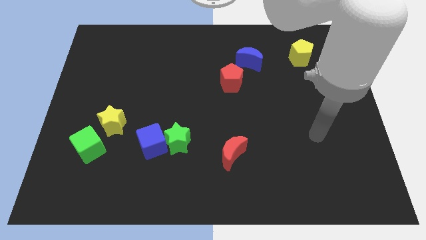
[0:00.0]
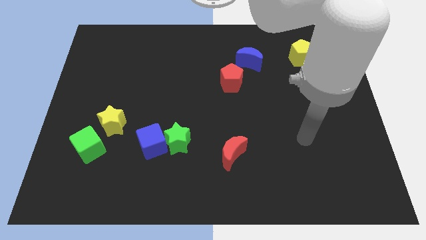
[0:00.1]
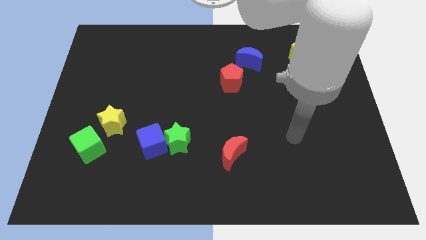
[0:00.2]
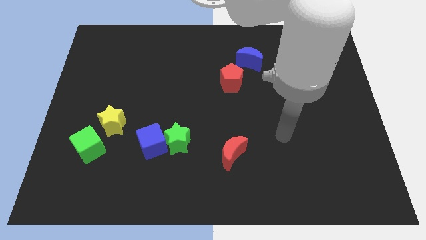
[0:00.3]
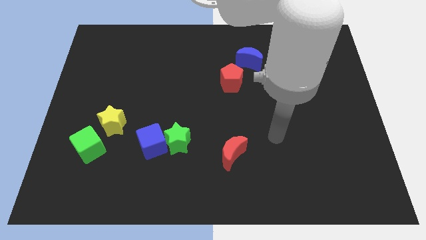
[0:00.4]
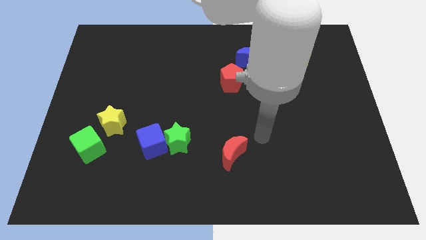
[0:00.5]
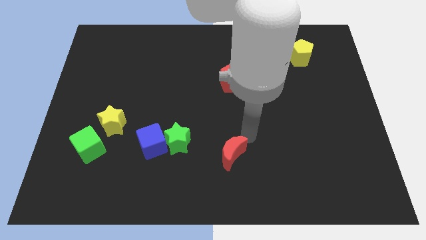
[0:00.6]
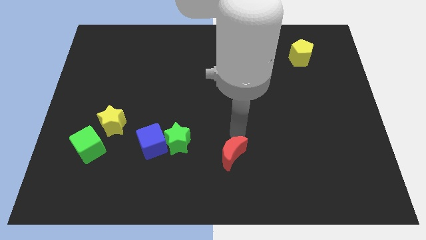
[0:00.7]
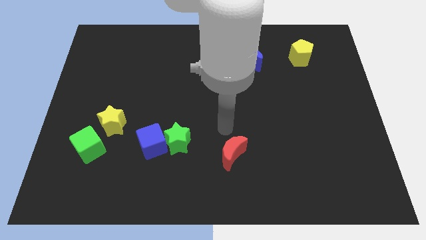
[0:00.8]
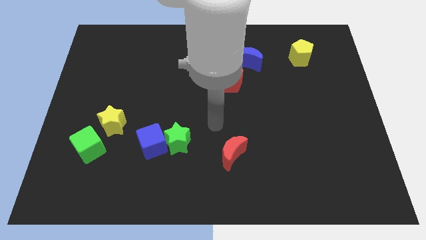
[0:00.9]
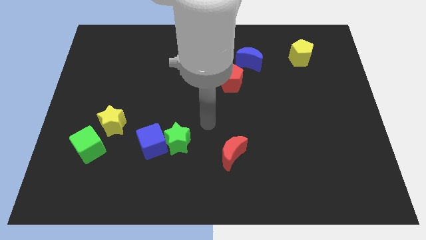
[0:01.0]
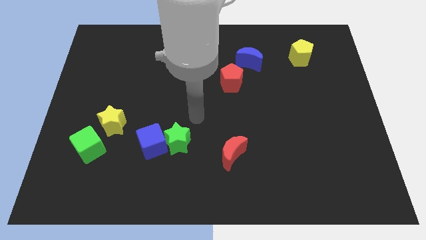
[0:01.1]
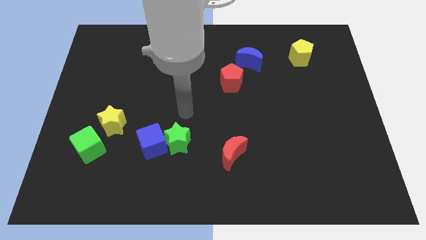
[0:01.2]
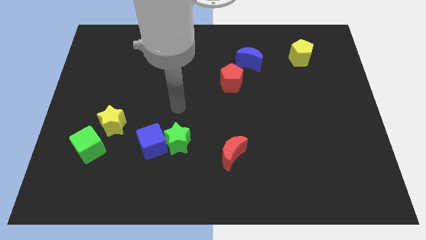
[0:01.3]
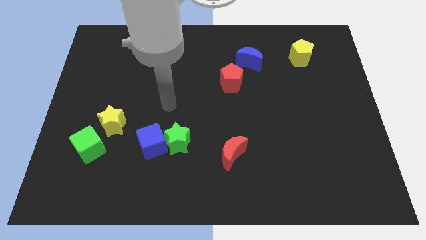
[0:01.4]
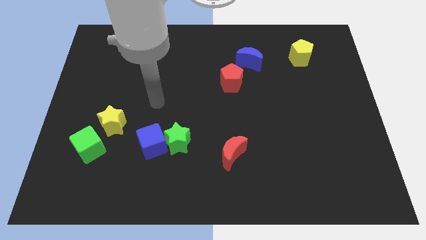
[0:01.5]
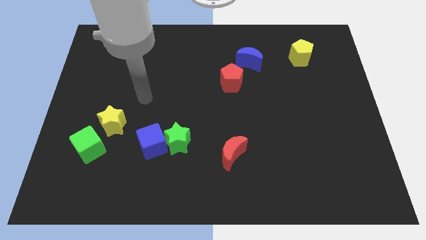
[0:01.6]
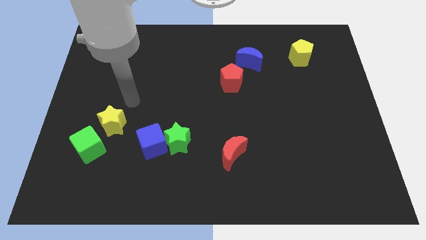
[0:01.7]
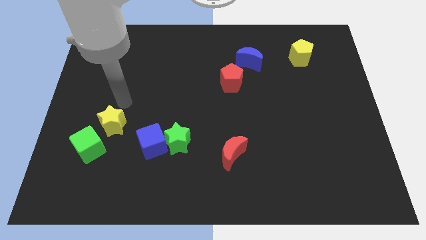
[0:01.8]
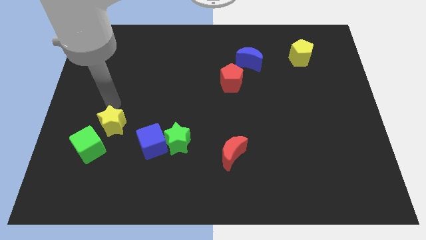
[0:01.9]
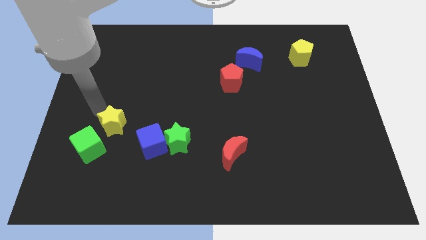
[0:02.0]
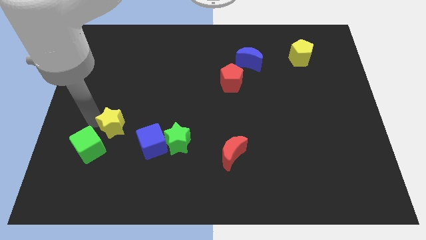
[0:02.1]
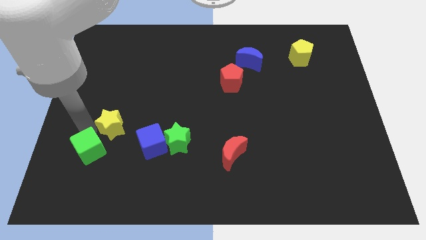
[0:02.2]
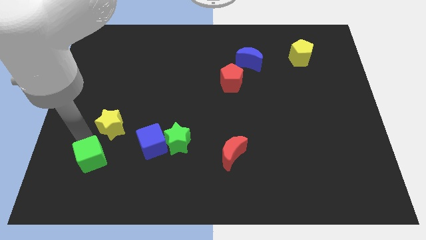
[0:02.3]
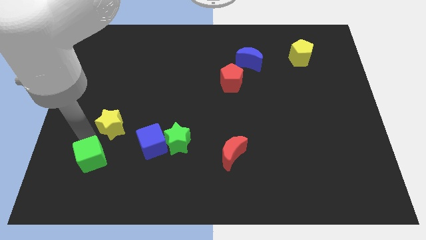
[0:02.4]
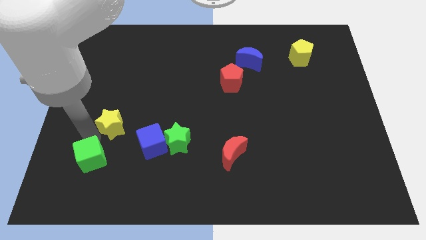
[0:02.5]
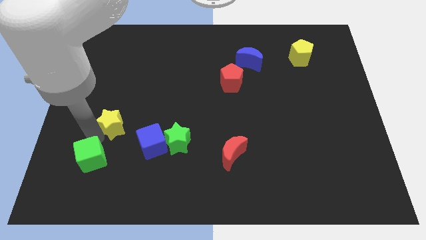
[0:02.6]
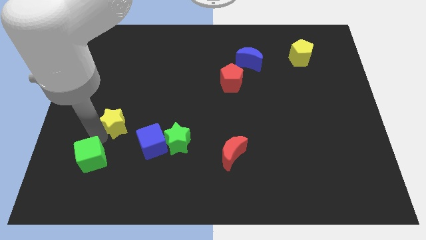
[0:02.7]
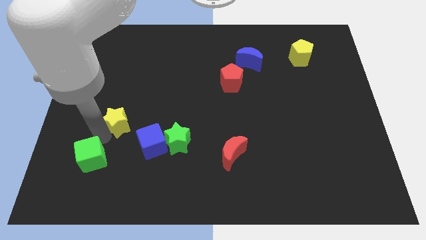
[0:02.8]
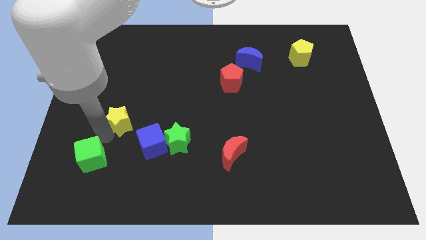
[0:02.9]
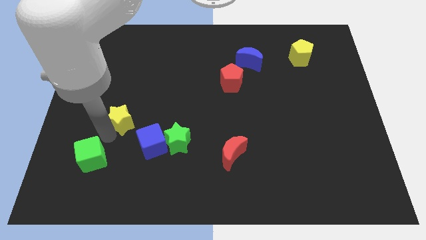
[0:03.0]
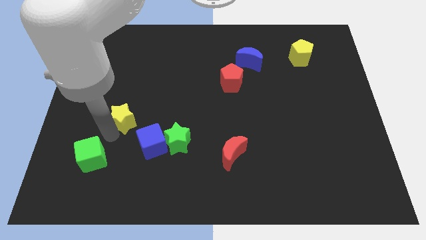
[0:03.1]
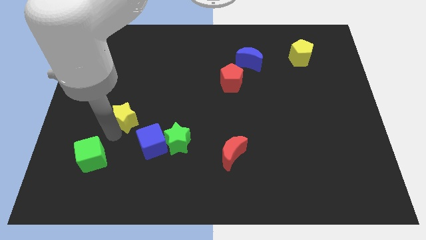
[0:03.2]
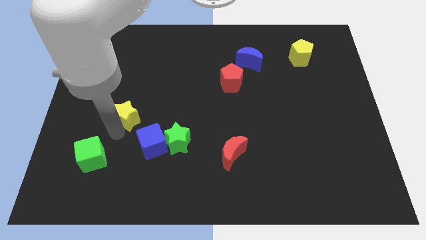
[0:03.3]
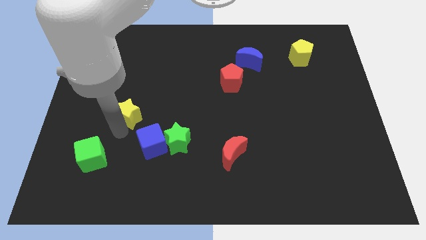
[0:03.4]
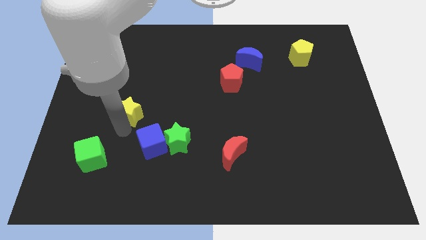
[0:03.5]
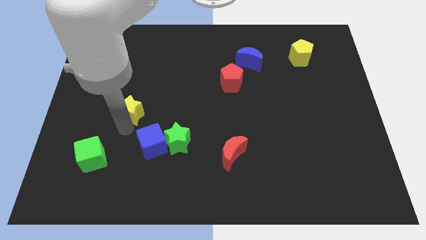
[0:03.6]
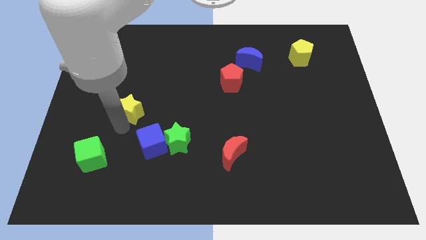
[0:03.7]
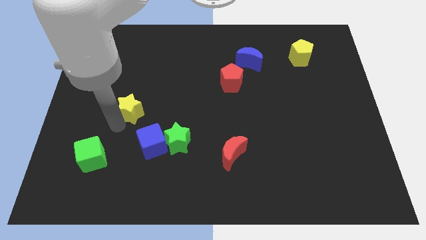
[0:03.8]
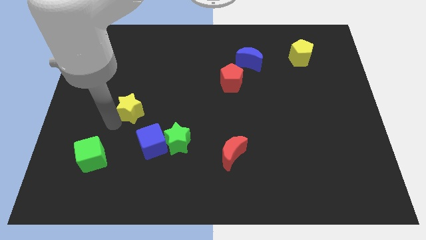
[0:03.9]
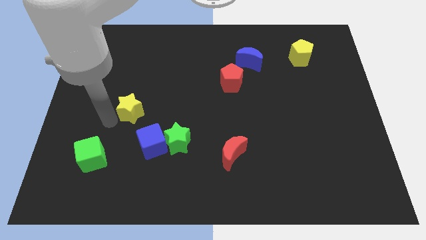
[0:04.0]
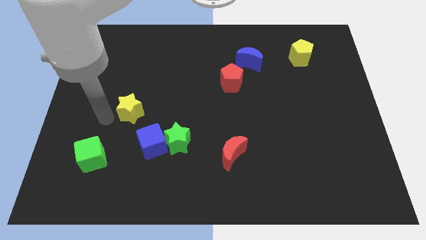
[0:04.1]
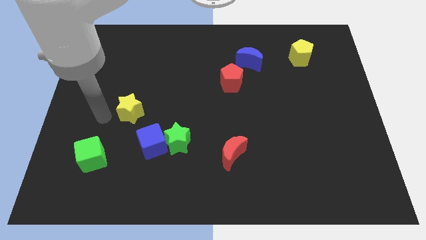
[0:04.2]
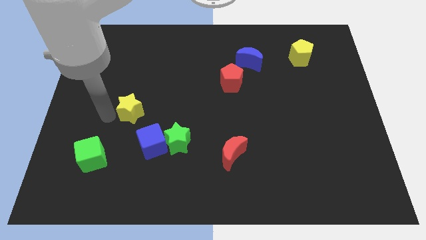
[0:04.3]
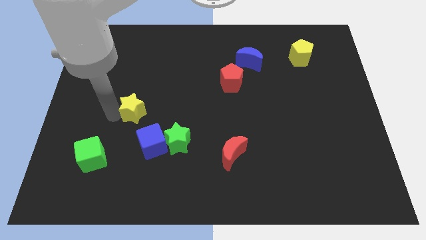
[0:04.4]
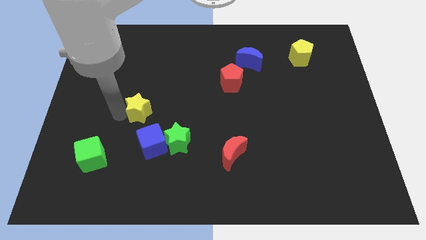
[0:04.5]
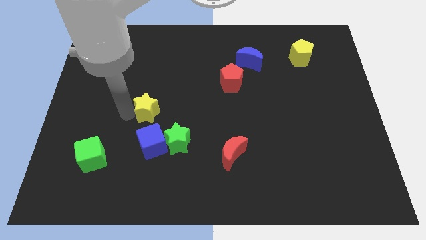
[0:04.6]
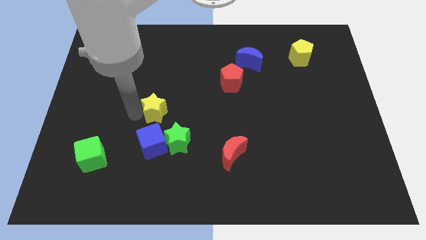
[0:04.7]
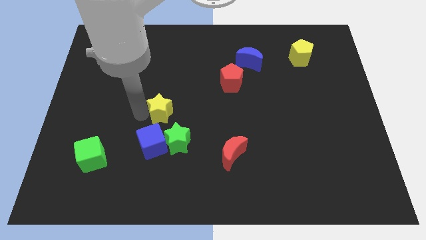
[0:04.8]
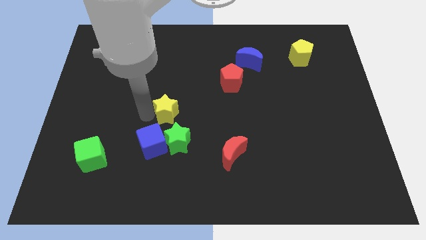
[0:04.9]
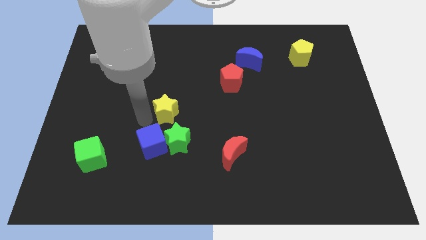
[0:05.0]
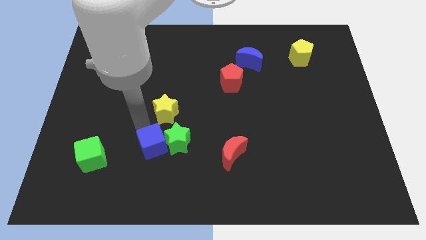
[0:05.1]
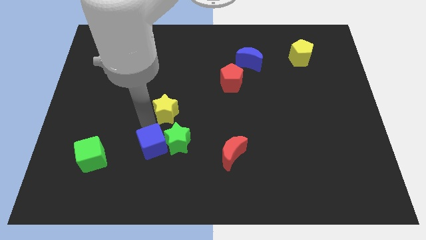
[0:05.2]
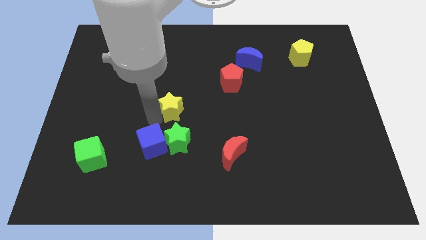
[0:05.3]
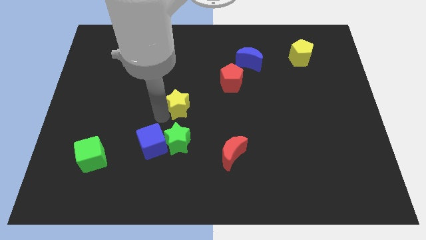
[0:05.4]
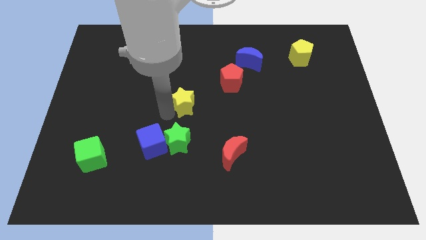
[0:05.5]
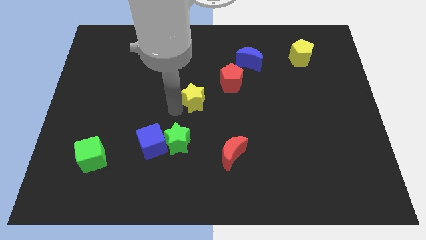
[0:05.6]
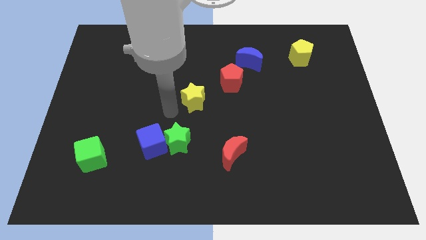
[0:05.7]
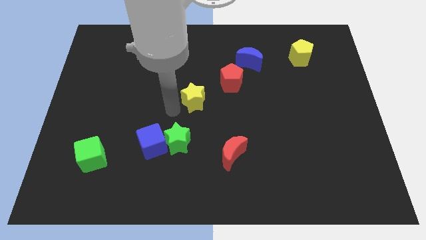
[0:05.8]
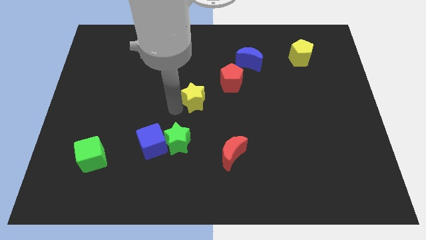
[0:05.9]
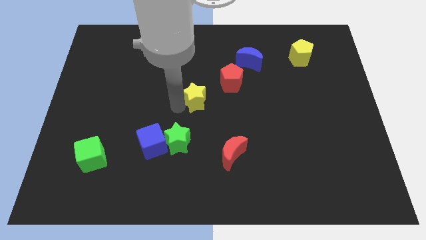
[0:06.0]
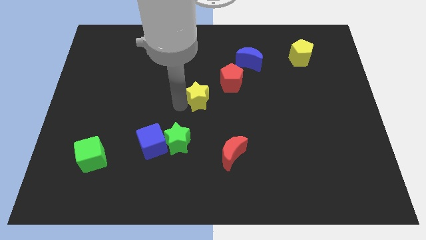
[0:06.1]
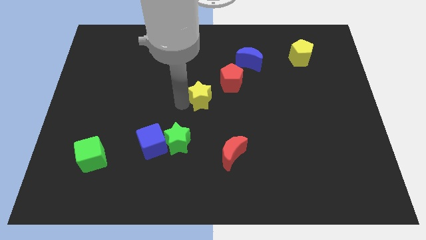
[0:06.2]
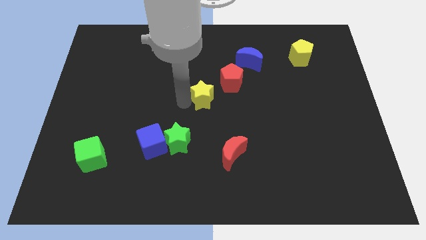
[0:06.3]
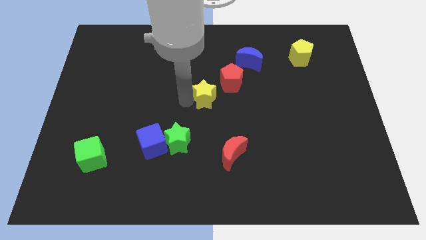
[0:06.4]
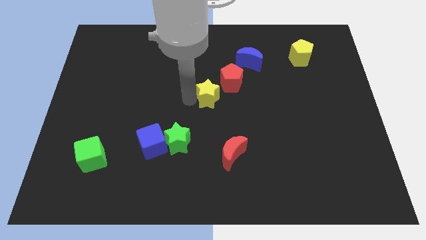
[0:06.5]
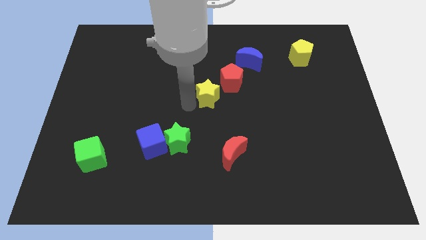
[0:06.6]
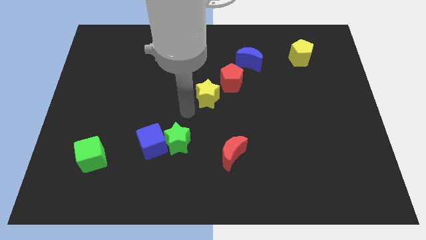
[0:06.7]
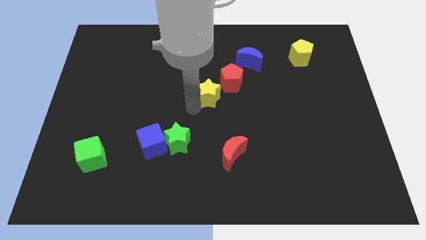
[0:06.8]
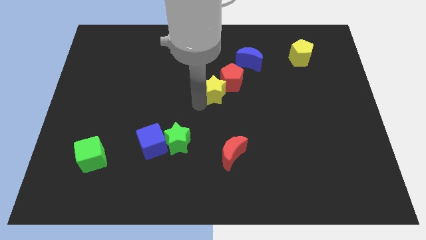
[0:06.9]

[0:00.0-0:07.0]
slide the yellow star towards the red pentagon
